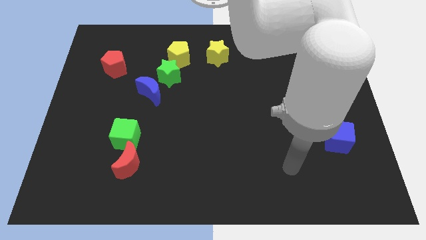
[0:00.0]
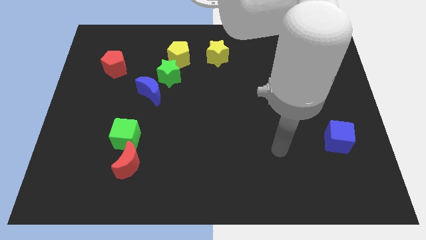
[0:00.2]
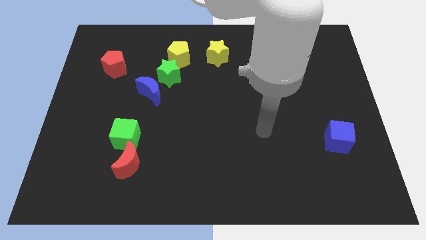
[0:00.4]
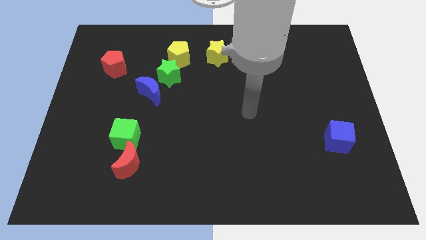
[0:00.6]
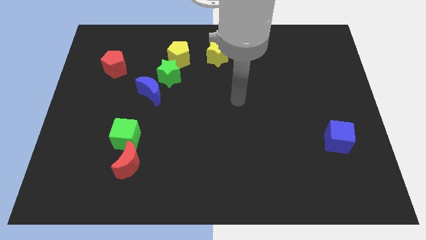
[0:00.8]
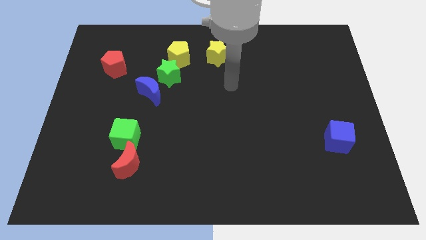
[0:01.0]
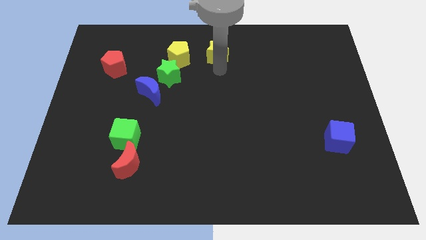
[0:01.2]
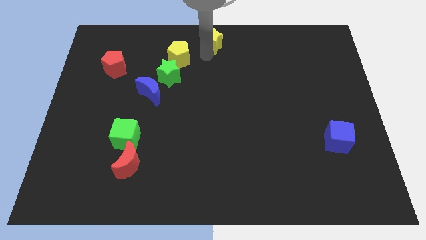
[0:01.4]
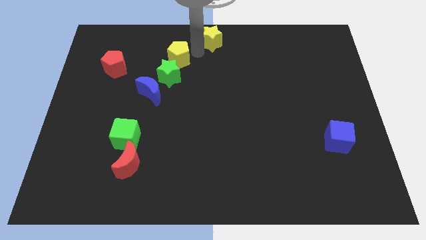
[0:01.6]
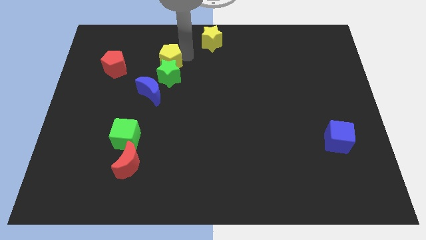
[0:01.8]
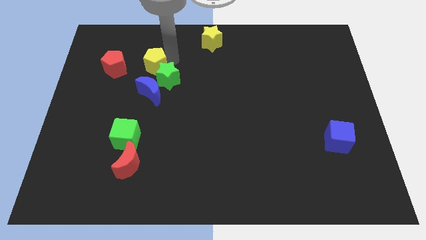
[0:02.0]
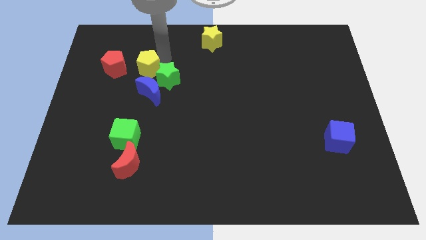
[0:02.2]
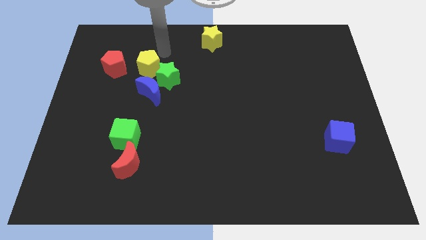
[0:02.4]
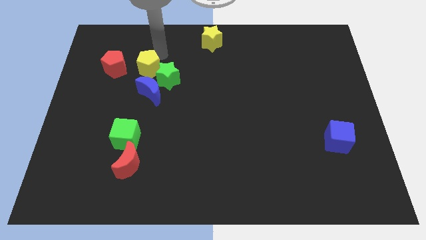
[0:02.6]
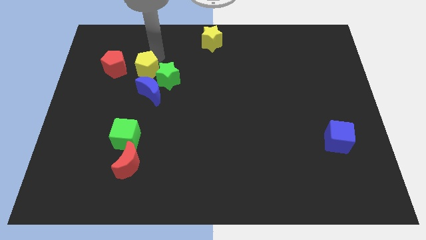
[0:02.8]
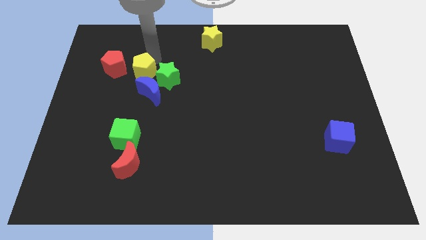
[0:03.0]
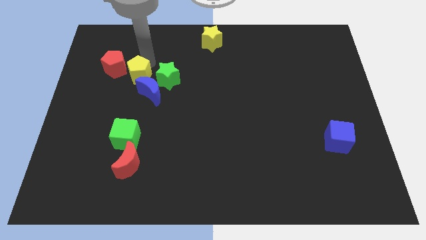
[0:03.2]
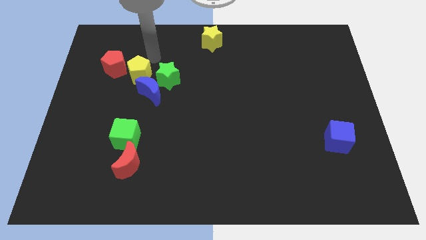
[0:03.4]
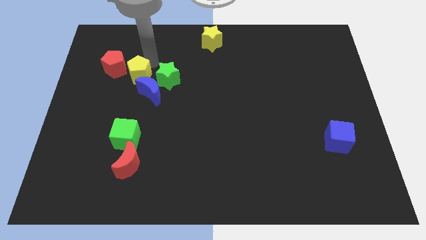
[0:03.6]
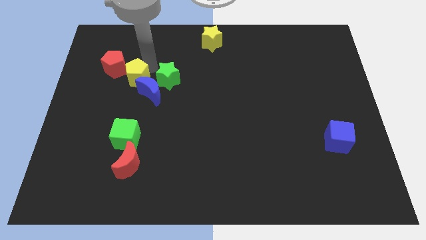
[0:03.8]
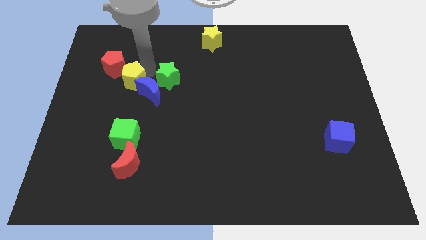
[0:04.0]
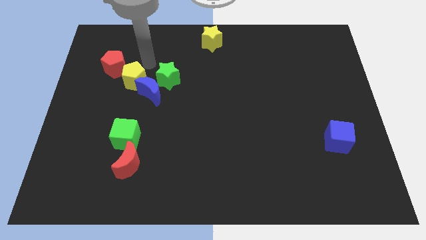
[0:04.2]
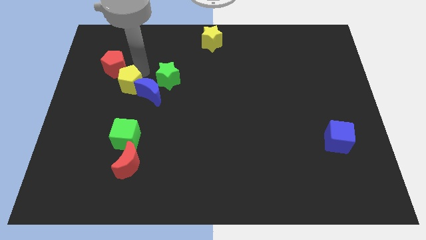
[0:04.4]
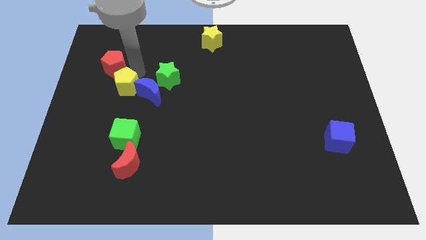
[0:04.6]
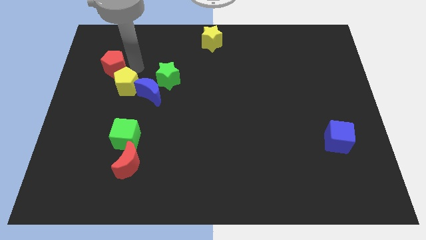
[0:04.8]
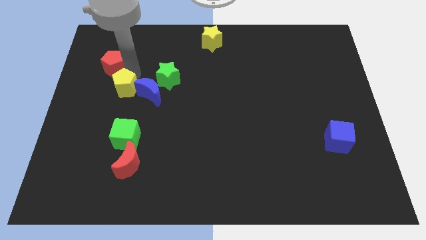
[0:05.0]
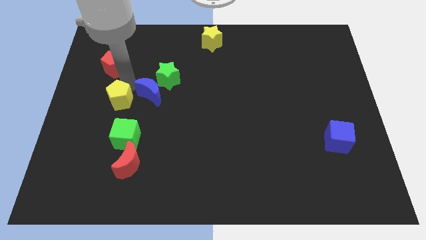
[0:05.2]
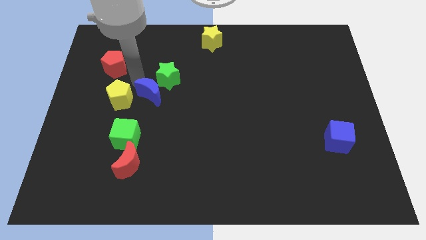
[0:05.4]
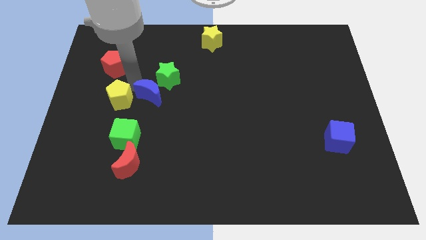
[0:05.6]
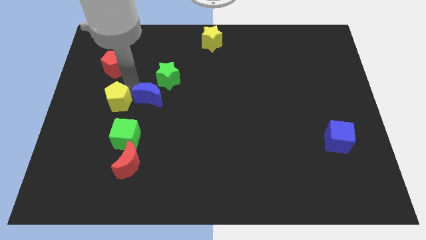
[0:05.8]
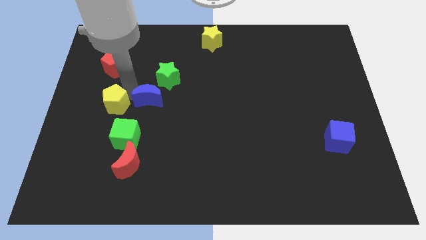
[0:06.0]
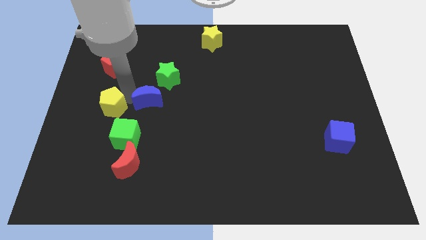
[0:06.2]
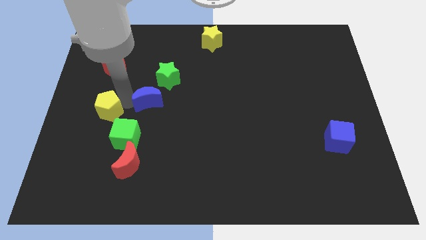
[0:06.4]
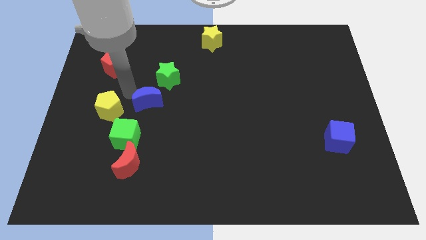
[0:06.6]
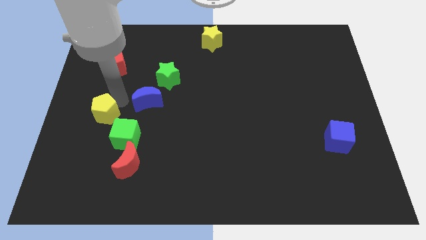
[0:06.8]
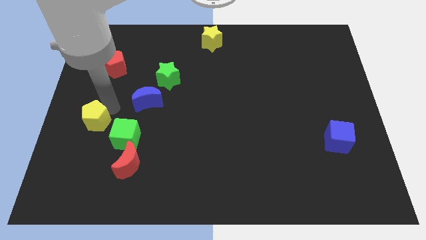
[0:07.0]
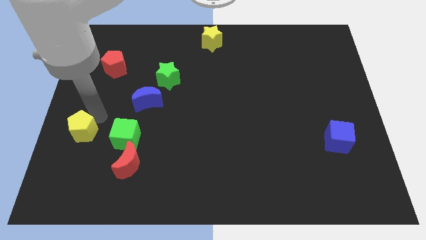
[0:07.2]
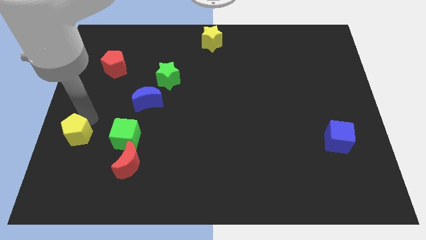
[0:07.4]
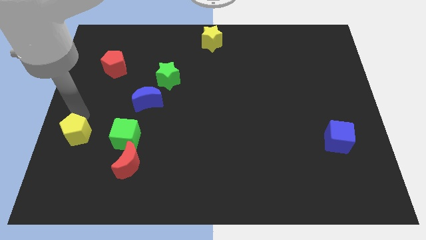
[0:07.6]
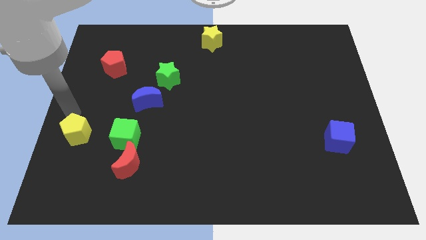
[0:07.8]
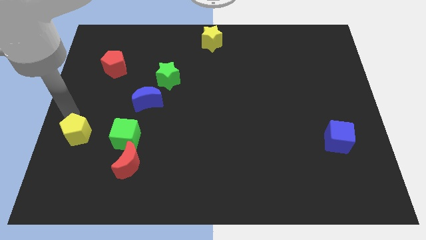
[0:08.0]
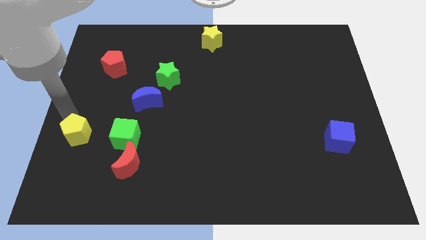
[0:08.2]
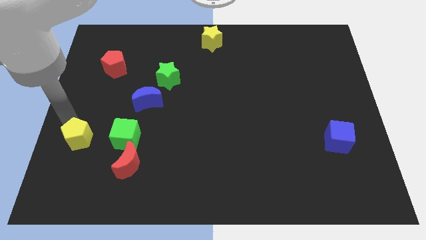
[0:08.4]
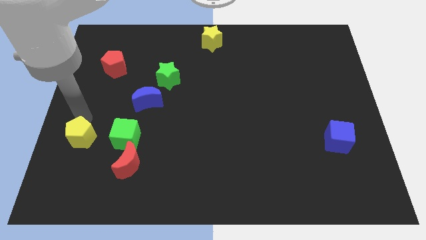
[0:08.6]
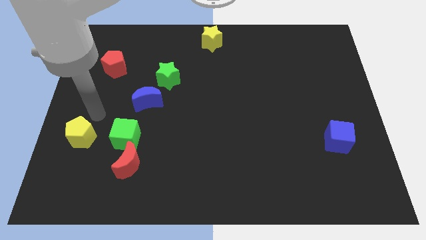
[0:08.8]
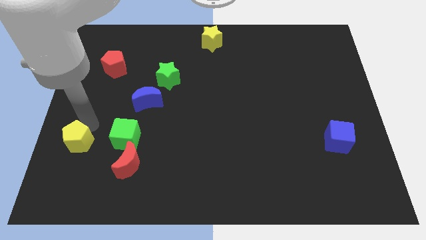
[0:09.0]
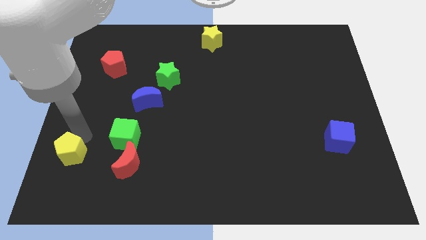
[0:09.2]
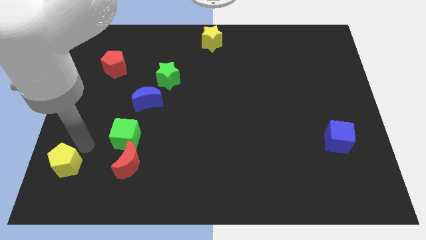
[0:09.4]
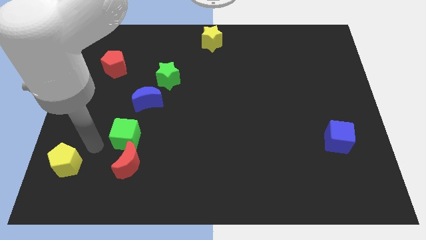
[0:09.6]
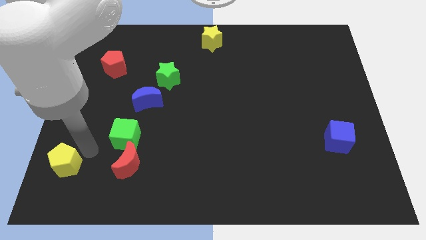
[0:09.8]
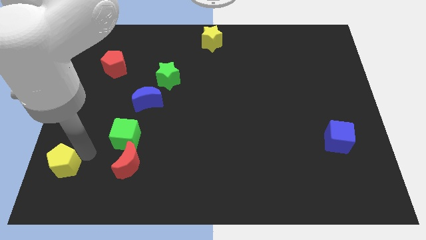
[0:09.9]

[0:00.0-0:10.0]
push the yellow pentagon to the lower left corner

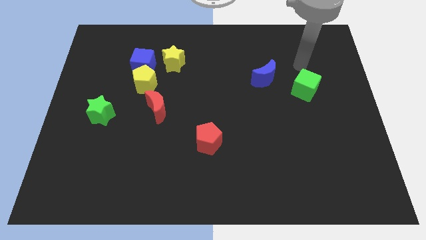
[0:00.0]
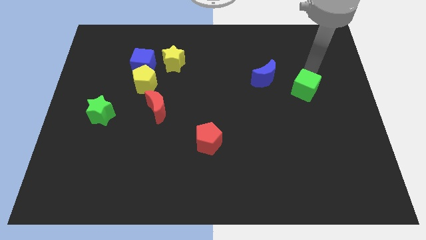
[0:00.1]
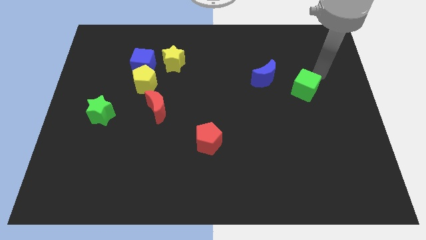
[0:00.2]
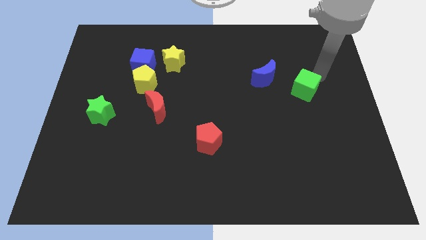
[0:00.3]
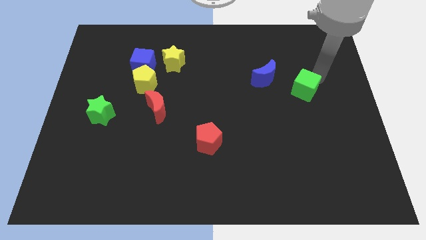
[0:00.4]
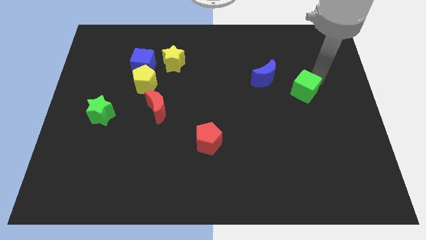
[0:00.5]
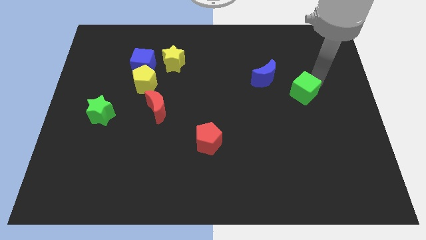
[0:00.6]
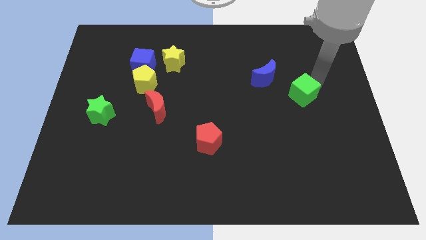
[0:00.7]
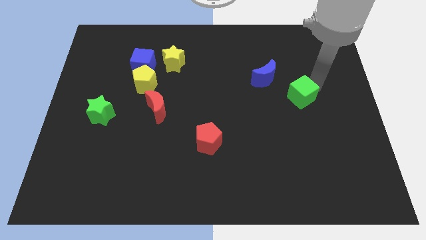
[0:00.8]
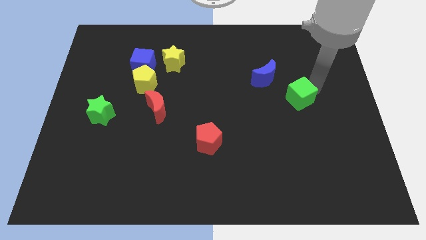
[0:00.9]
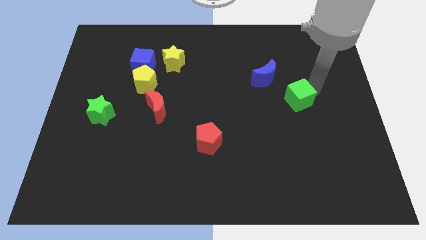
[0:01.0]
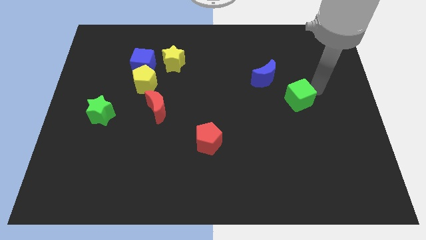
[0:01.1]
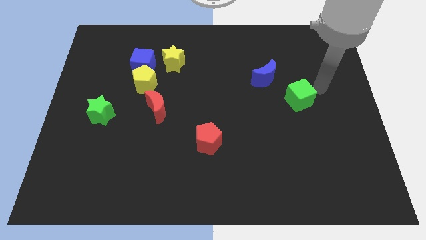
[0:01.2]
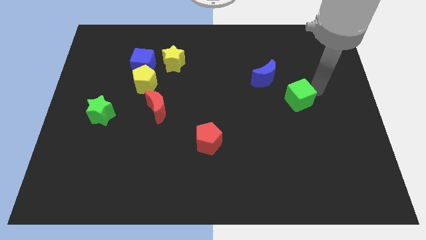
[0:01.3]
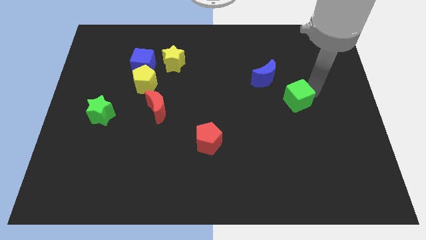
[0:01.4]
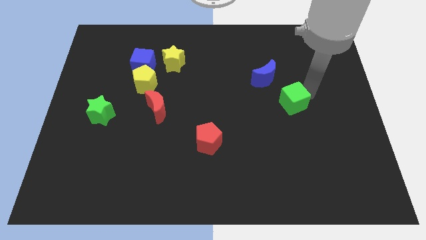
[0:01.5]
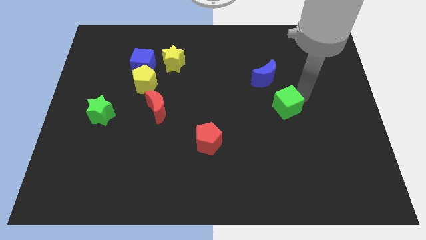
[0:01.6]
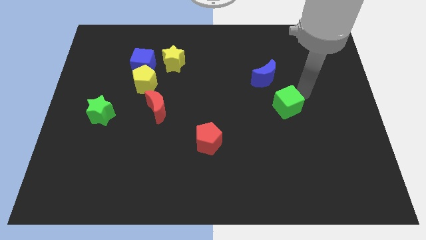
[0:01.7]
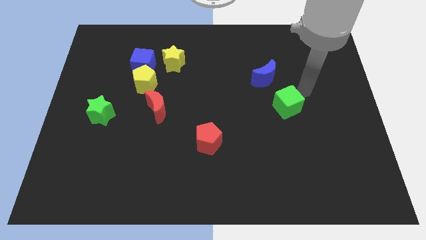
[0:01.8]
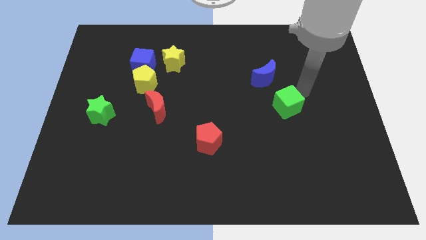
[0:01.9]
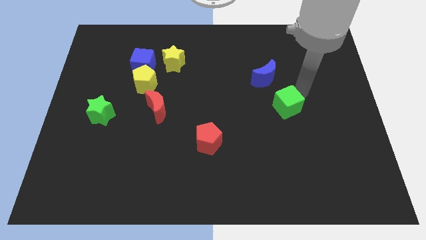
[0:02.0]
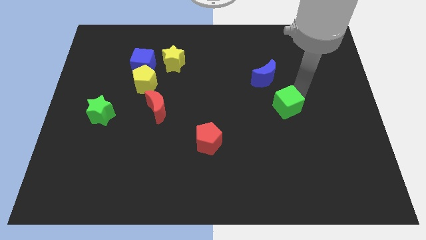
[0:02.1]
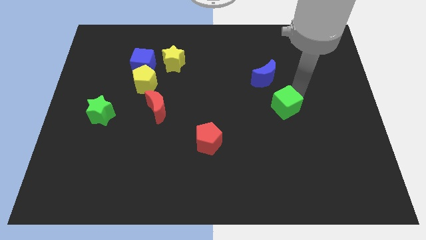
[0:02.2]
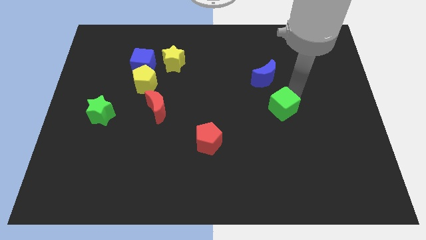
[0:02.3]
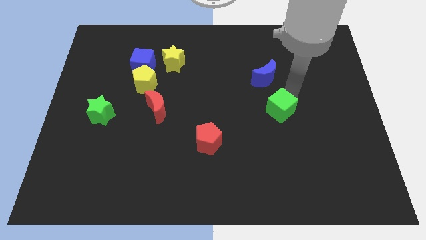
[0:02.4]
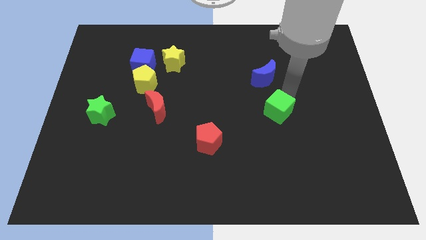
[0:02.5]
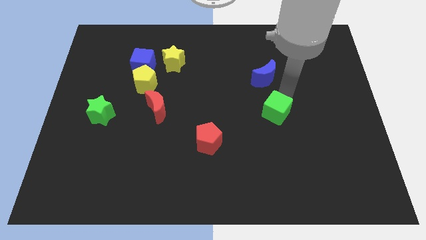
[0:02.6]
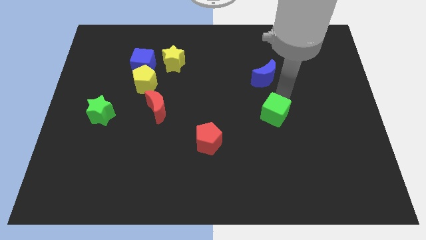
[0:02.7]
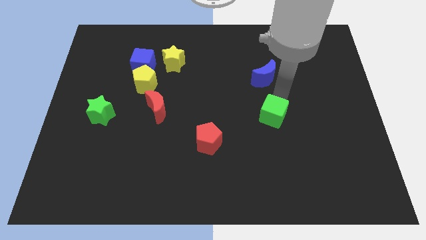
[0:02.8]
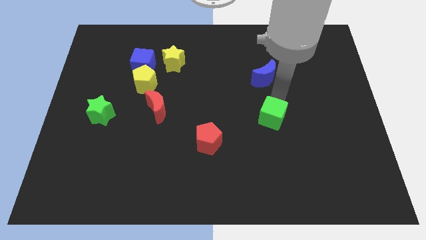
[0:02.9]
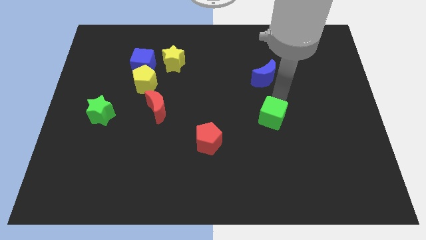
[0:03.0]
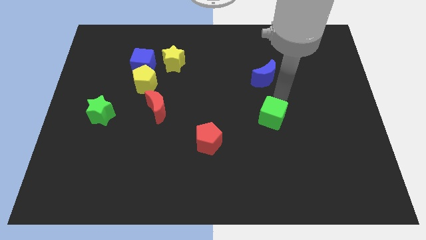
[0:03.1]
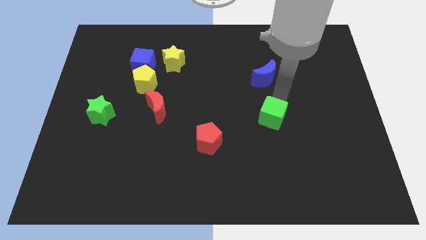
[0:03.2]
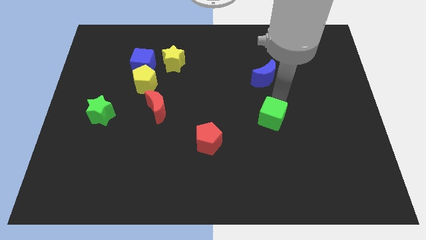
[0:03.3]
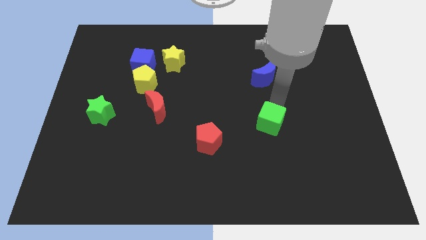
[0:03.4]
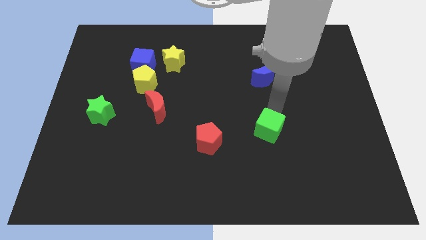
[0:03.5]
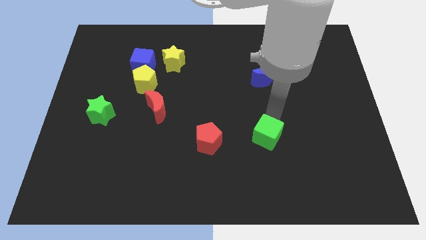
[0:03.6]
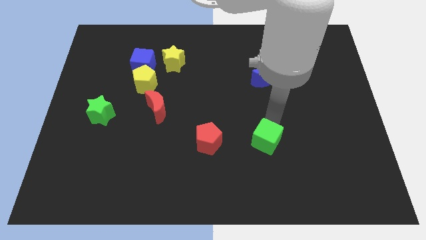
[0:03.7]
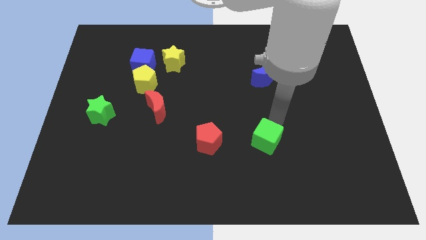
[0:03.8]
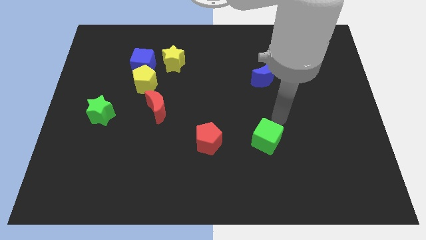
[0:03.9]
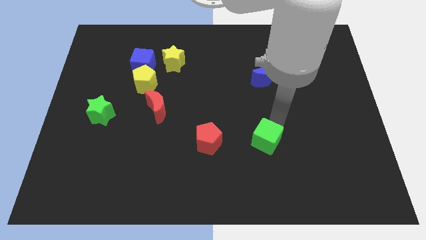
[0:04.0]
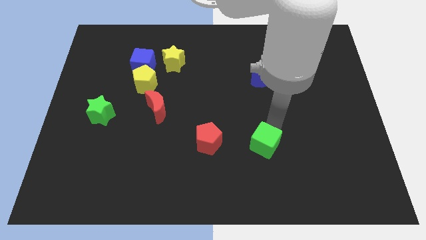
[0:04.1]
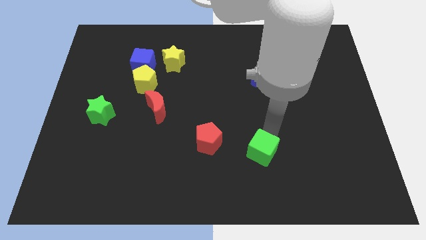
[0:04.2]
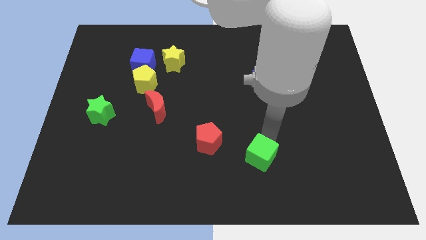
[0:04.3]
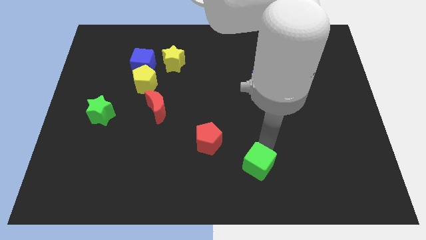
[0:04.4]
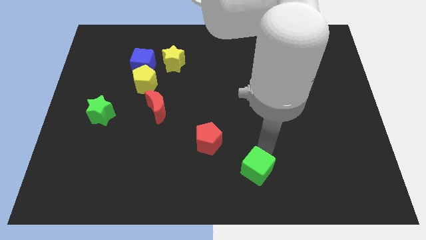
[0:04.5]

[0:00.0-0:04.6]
push the green cube to the bottom side
